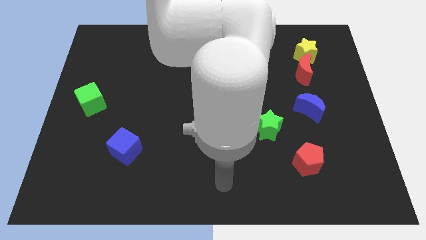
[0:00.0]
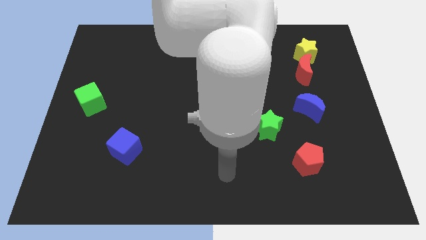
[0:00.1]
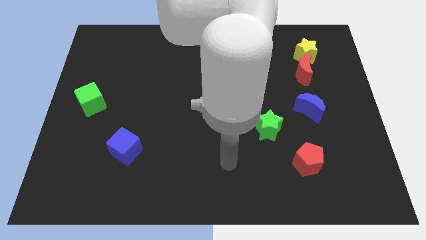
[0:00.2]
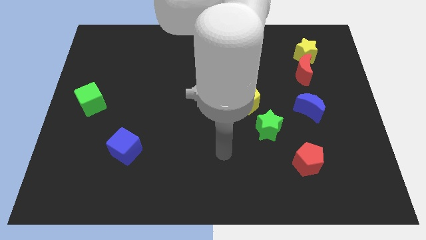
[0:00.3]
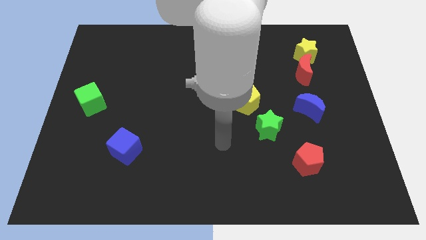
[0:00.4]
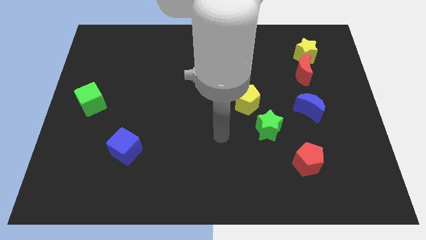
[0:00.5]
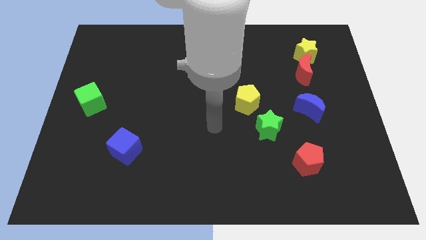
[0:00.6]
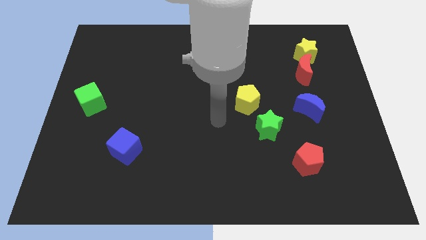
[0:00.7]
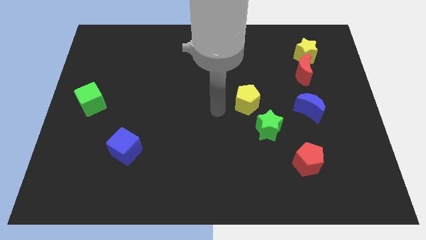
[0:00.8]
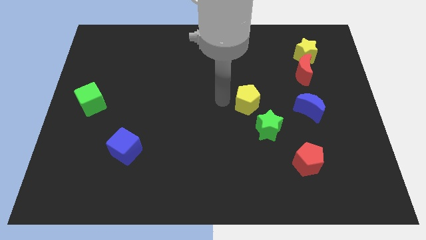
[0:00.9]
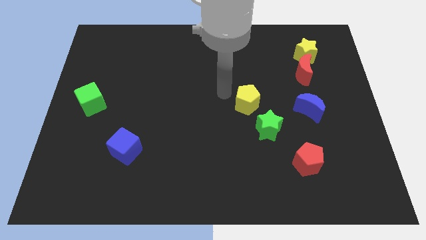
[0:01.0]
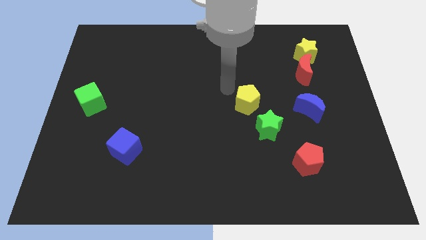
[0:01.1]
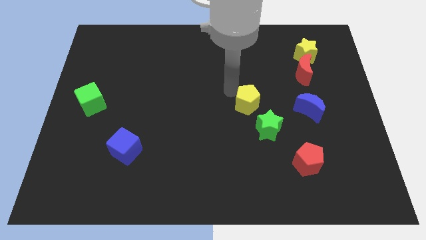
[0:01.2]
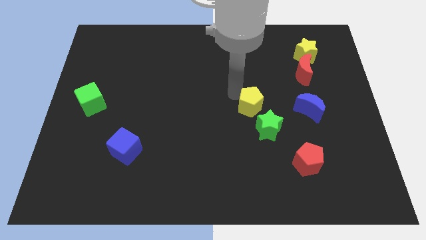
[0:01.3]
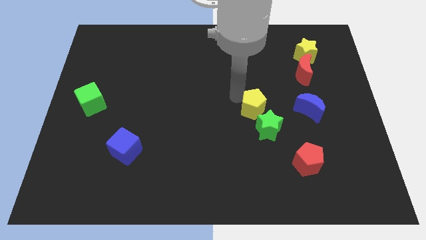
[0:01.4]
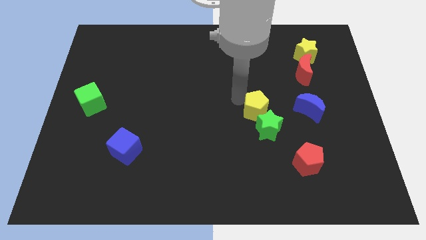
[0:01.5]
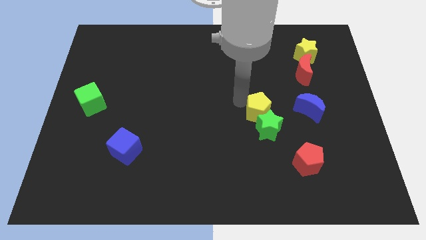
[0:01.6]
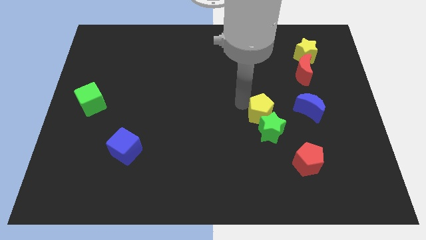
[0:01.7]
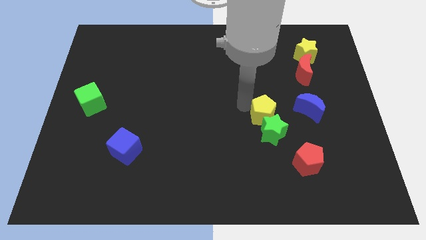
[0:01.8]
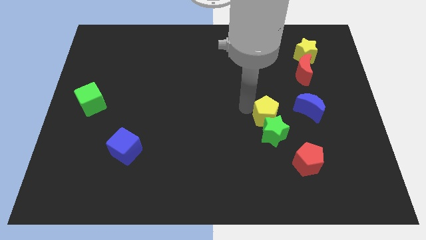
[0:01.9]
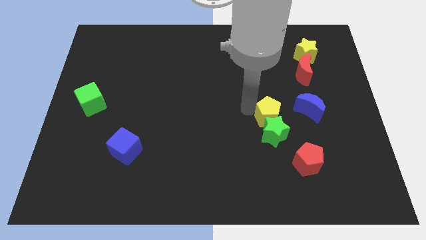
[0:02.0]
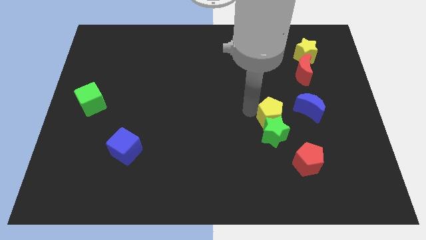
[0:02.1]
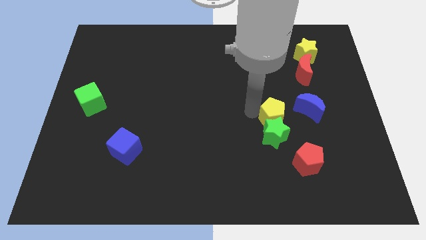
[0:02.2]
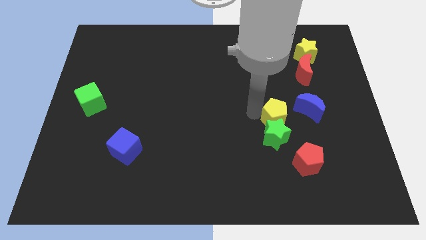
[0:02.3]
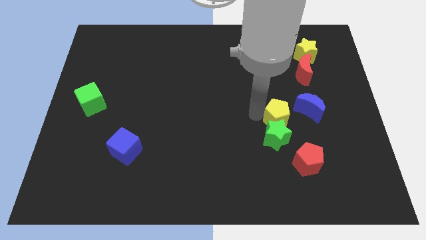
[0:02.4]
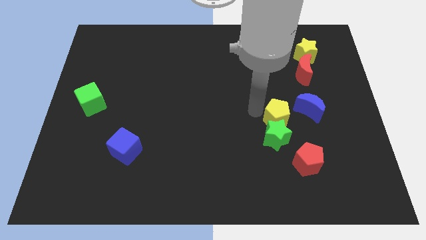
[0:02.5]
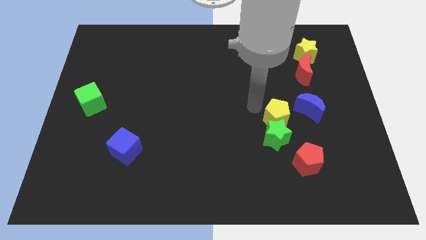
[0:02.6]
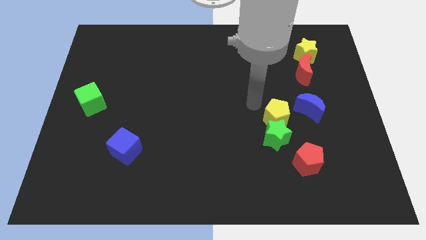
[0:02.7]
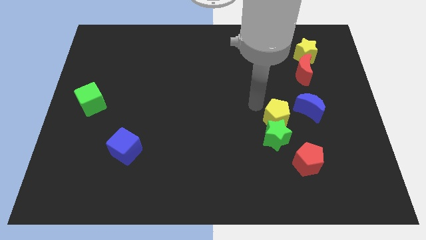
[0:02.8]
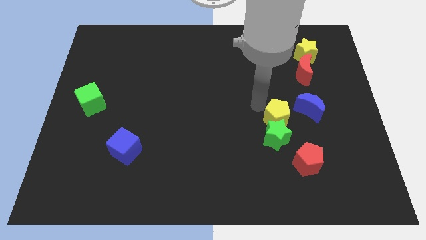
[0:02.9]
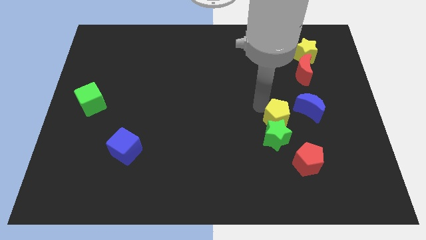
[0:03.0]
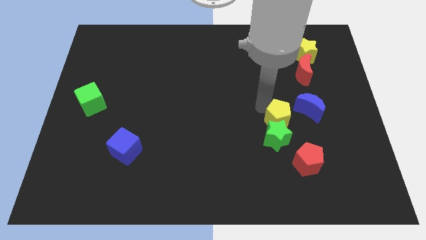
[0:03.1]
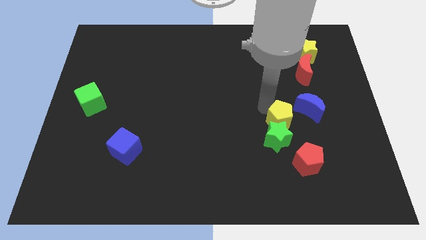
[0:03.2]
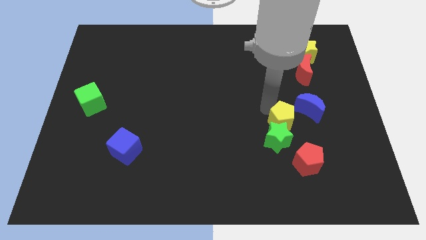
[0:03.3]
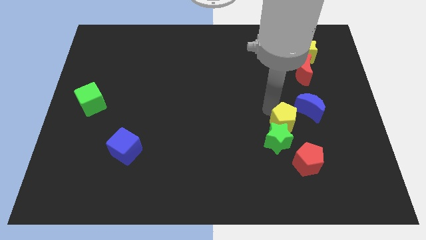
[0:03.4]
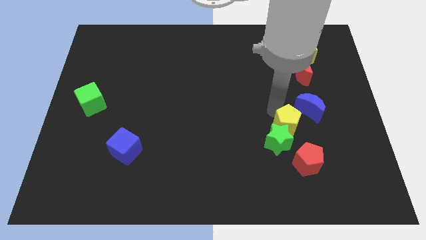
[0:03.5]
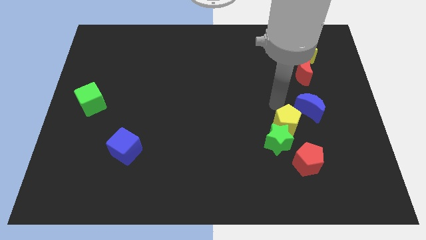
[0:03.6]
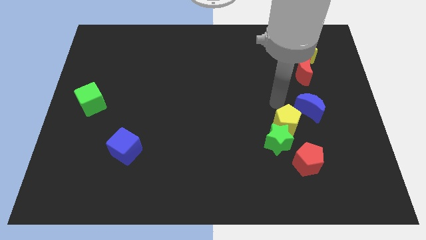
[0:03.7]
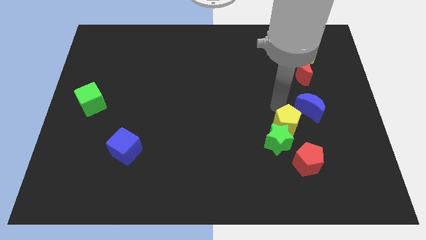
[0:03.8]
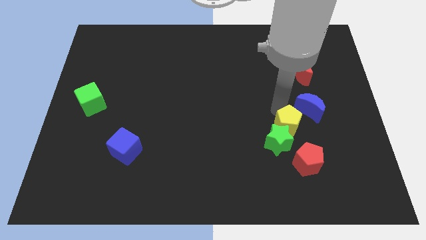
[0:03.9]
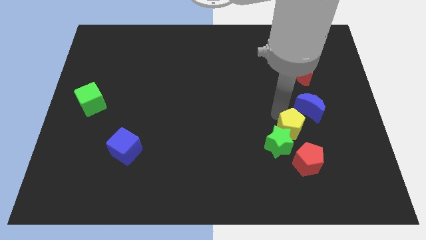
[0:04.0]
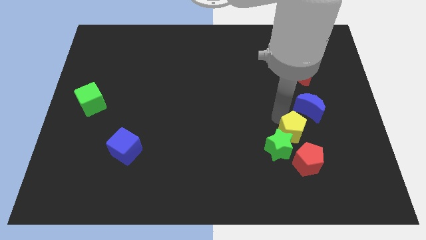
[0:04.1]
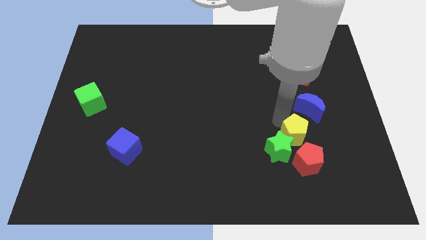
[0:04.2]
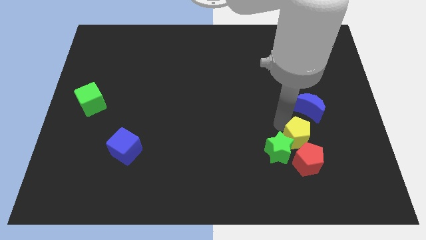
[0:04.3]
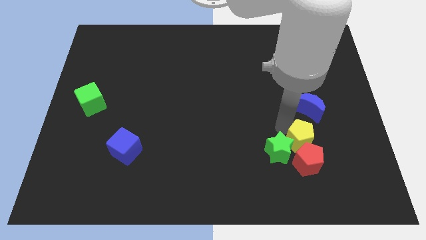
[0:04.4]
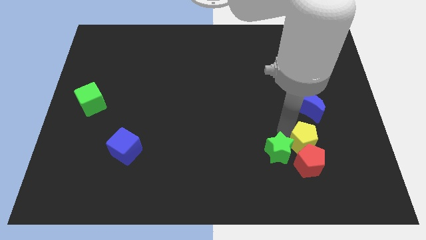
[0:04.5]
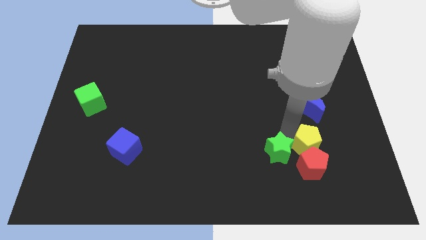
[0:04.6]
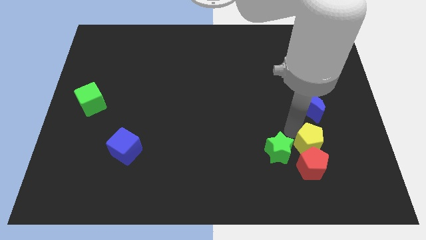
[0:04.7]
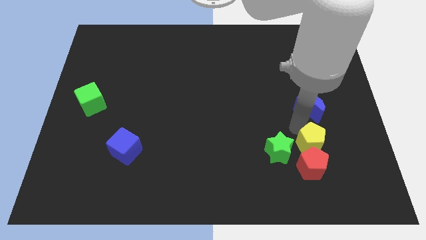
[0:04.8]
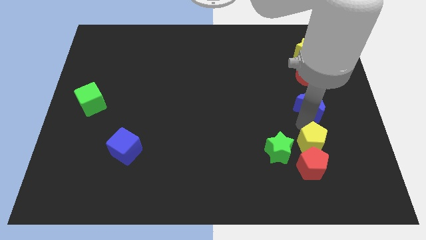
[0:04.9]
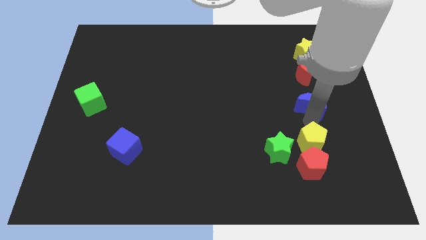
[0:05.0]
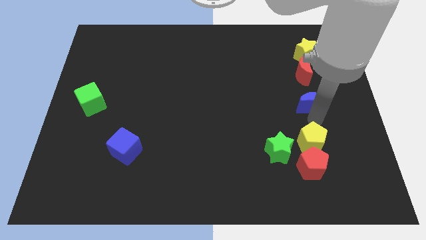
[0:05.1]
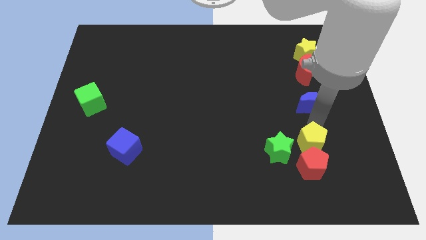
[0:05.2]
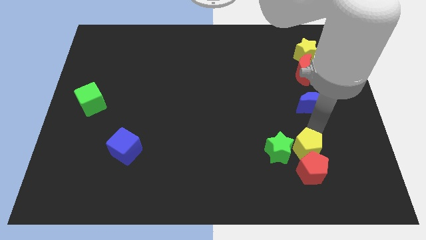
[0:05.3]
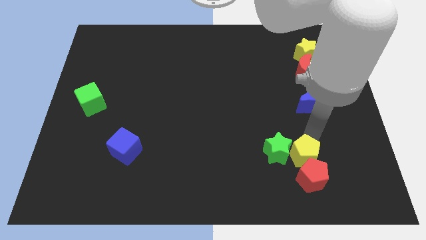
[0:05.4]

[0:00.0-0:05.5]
push the yellow pentagon to the bottom right side of the green star

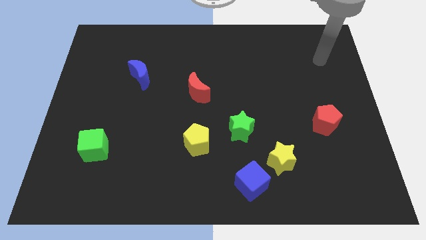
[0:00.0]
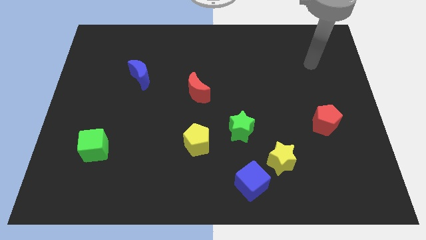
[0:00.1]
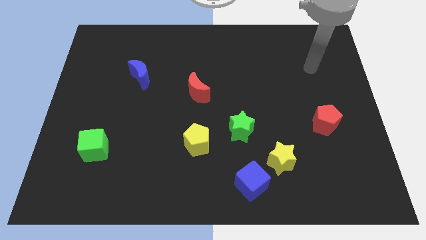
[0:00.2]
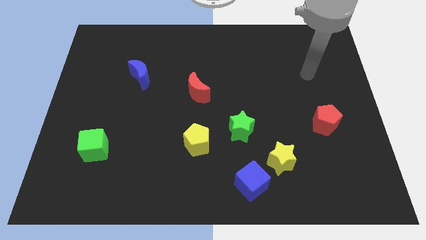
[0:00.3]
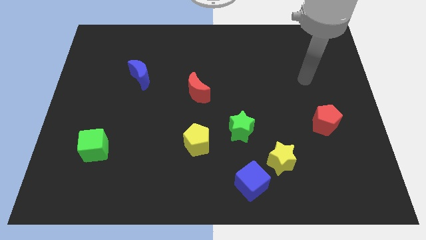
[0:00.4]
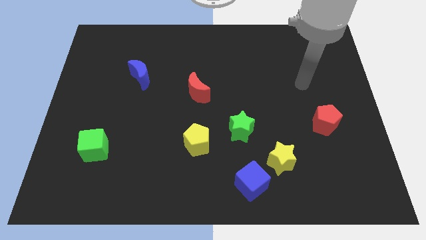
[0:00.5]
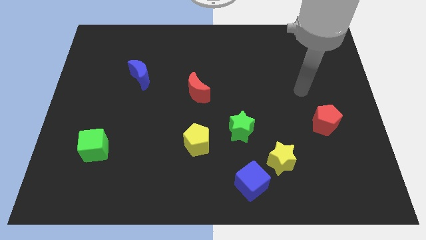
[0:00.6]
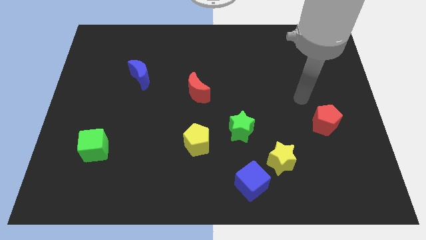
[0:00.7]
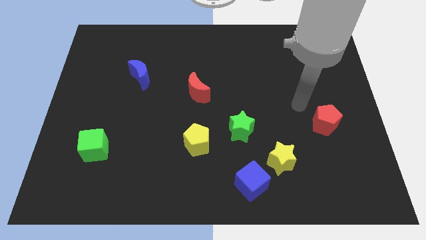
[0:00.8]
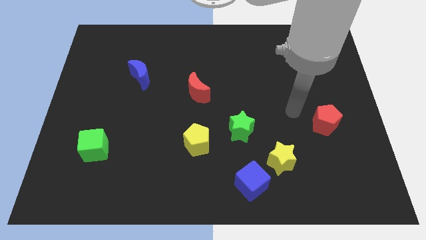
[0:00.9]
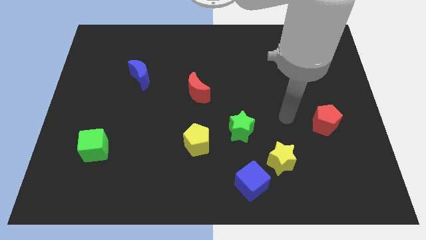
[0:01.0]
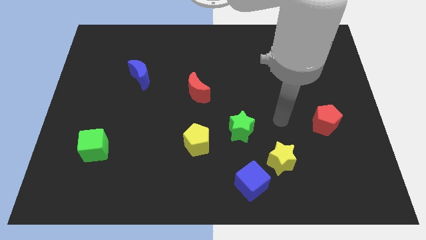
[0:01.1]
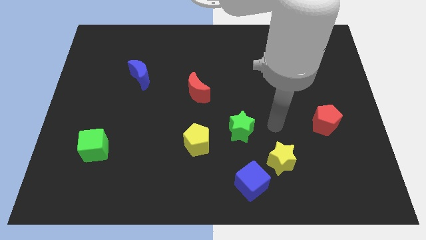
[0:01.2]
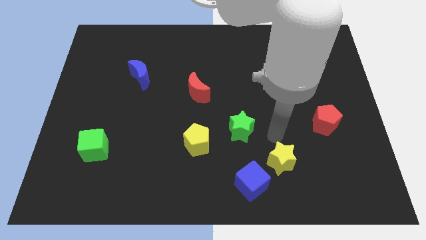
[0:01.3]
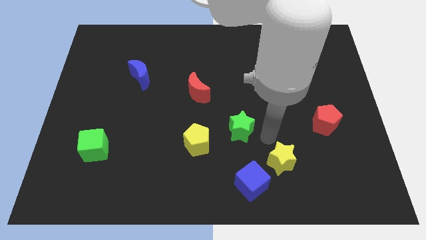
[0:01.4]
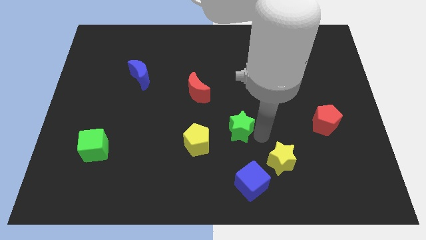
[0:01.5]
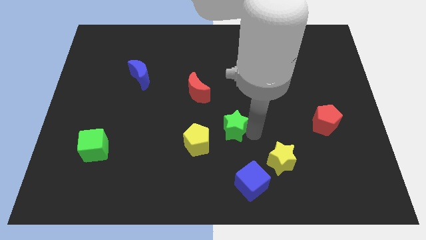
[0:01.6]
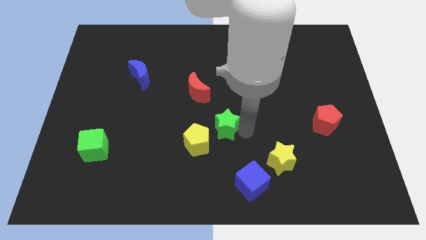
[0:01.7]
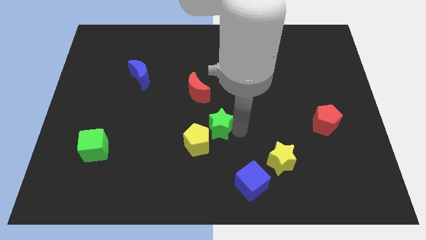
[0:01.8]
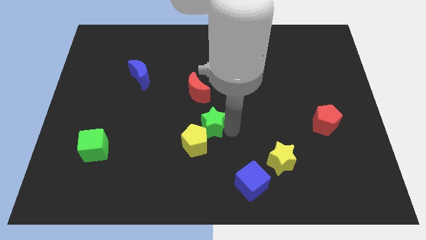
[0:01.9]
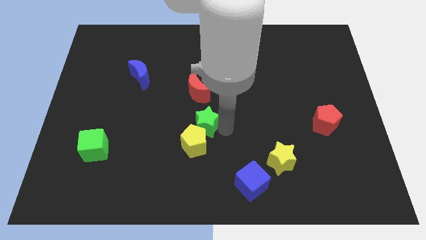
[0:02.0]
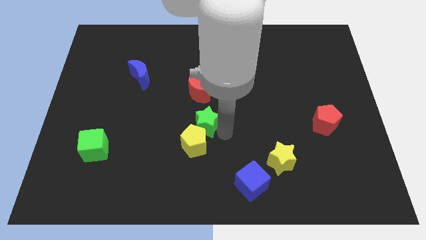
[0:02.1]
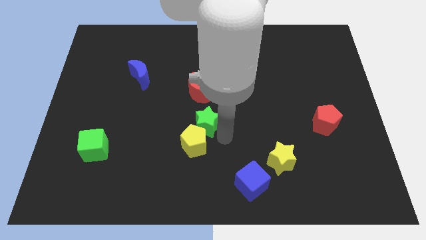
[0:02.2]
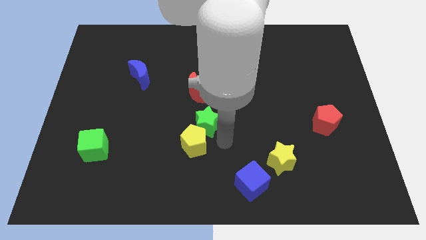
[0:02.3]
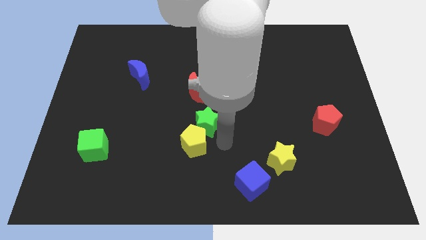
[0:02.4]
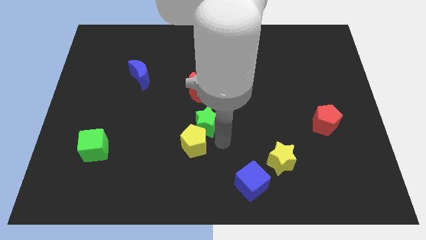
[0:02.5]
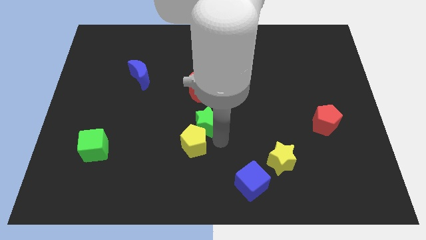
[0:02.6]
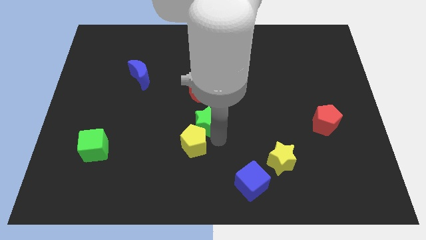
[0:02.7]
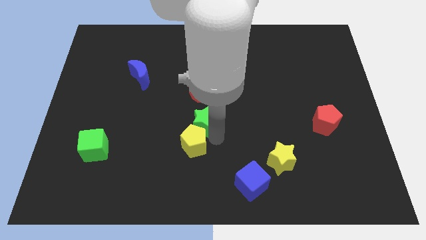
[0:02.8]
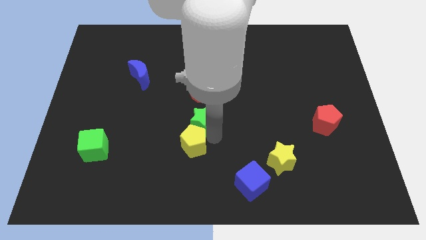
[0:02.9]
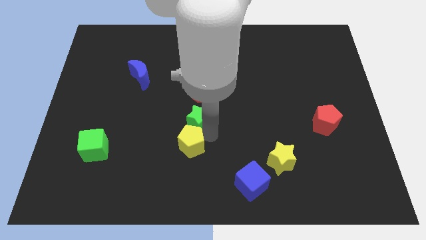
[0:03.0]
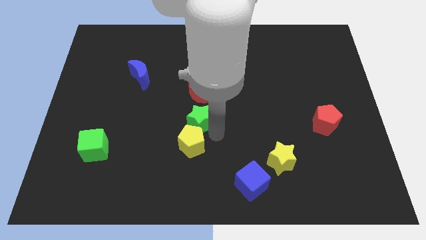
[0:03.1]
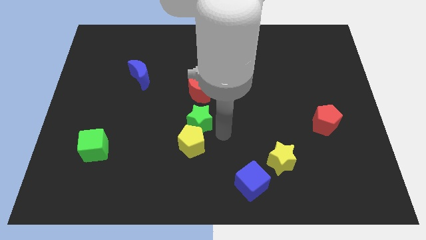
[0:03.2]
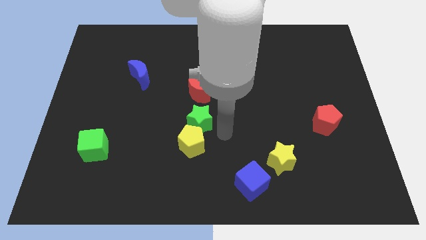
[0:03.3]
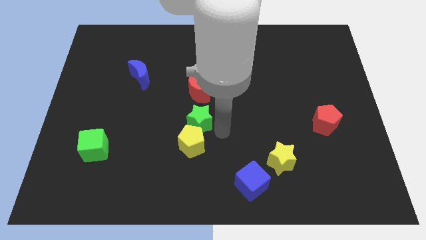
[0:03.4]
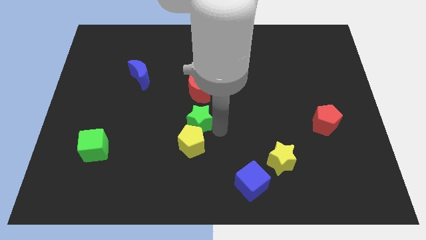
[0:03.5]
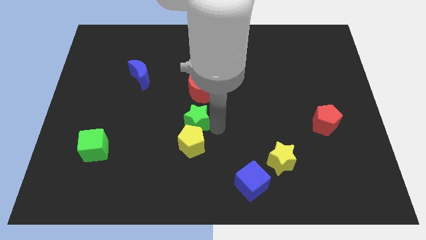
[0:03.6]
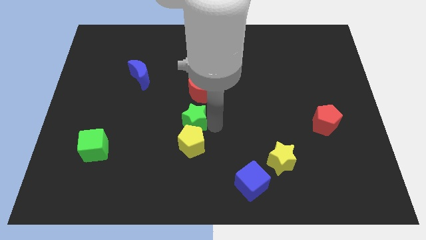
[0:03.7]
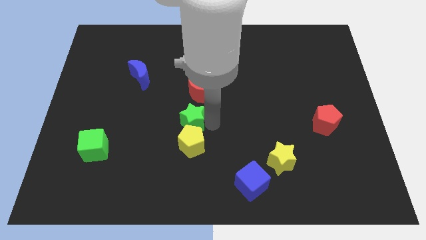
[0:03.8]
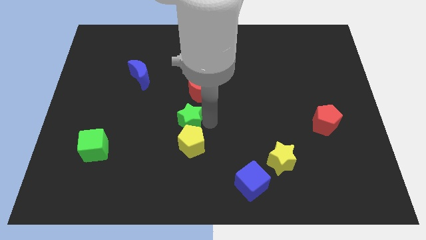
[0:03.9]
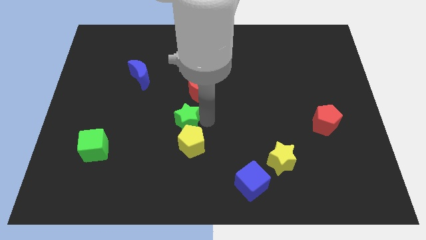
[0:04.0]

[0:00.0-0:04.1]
push the green star to the bottom left side of the red moon
